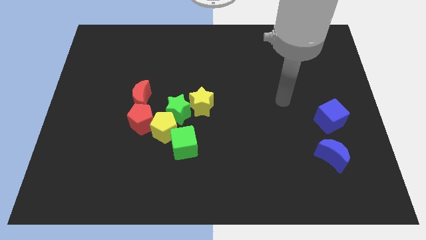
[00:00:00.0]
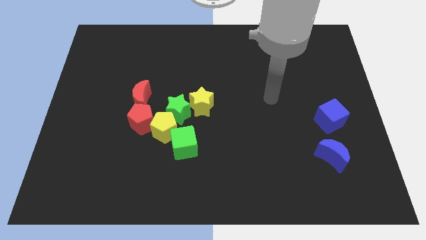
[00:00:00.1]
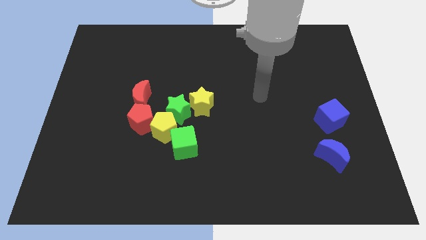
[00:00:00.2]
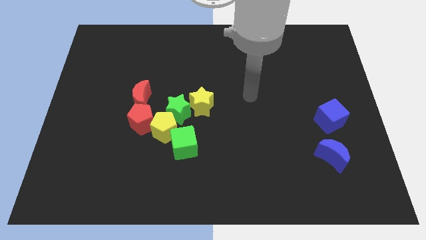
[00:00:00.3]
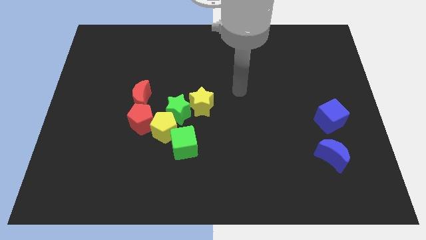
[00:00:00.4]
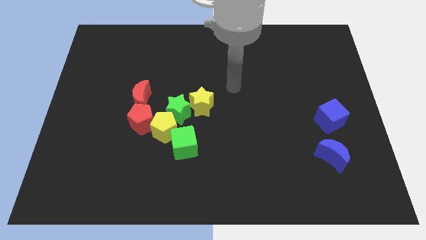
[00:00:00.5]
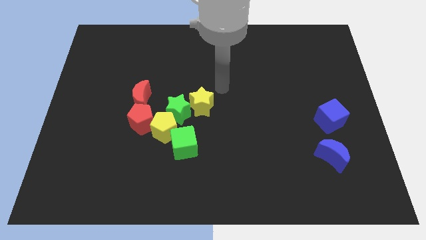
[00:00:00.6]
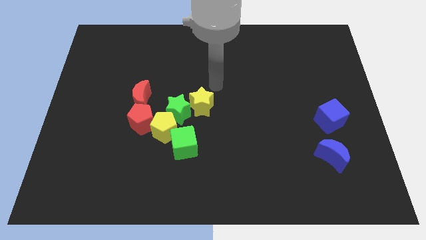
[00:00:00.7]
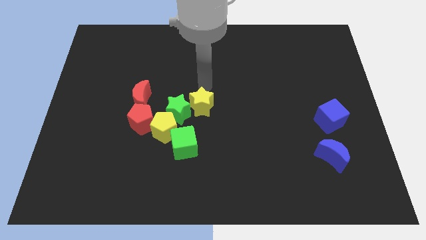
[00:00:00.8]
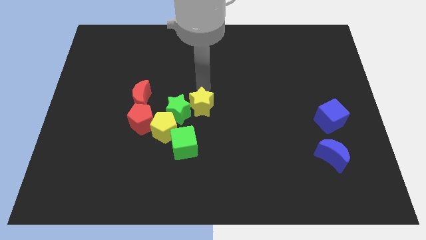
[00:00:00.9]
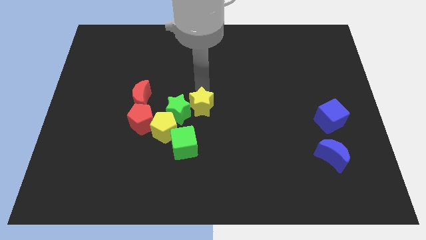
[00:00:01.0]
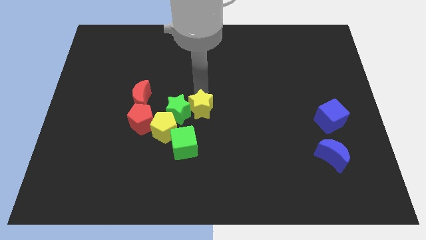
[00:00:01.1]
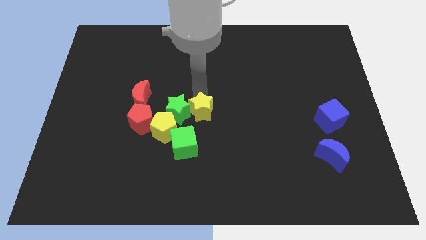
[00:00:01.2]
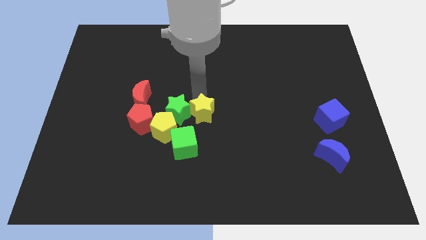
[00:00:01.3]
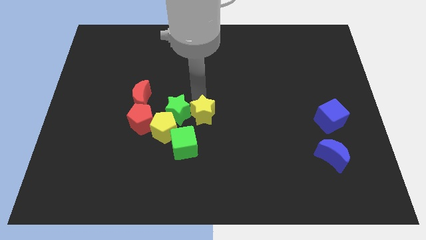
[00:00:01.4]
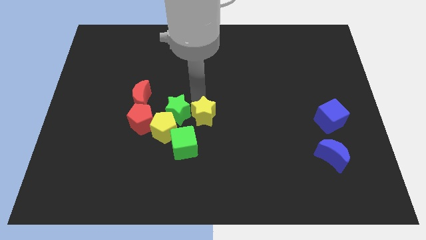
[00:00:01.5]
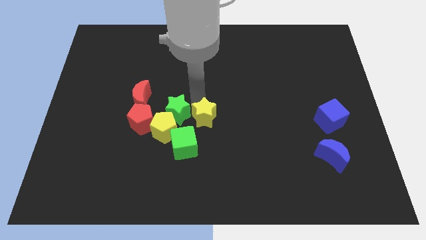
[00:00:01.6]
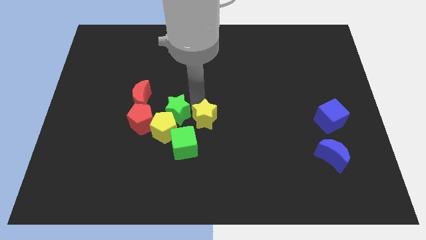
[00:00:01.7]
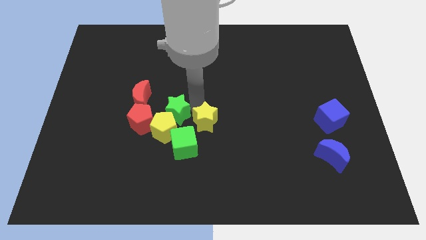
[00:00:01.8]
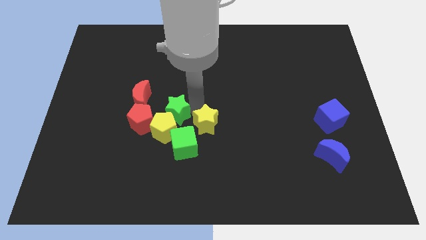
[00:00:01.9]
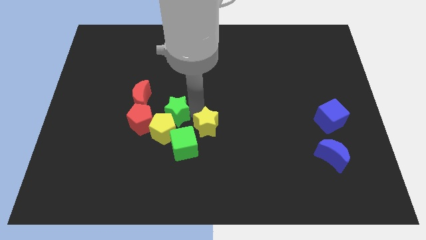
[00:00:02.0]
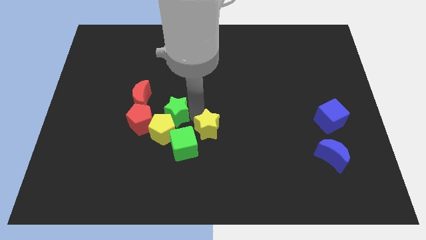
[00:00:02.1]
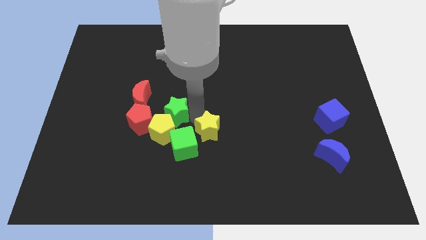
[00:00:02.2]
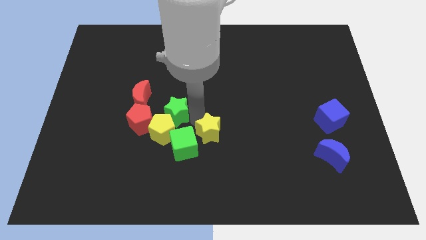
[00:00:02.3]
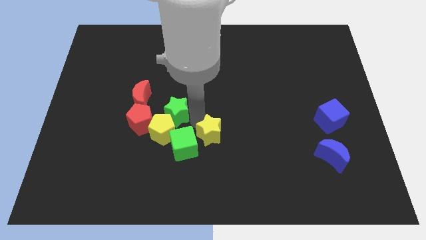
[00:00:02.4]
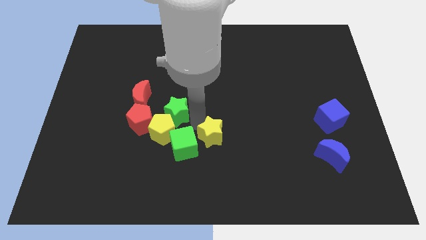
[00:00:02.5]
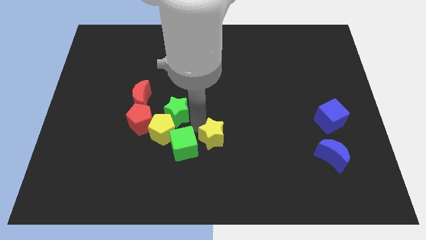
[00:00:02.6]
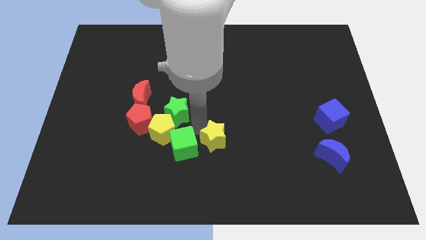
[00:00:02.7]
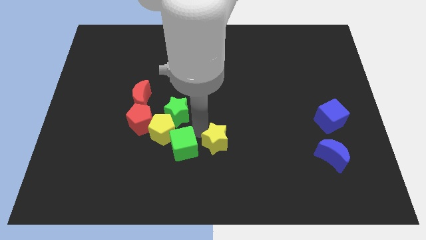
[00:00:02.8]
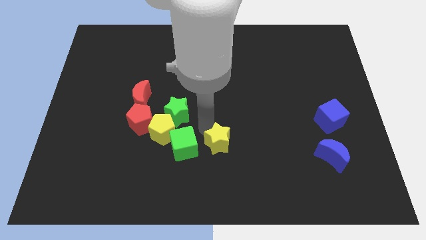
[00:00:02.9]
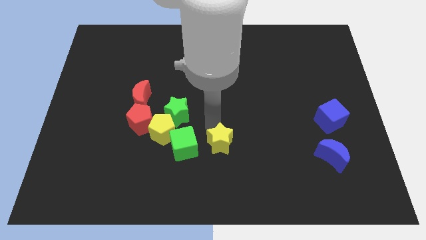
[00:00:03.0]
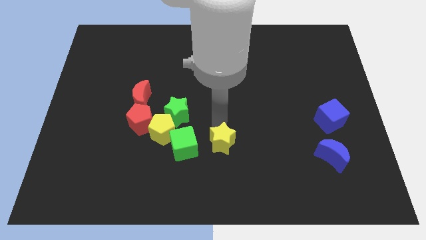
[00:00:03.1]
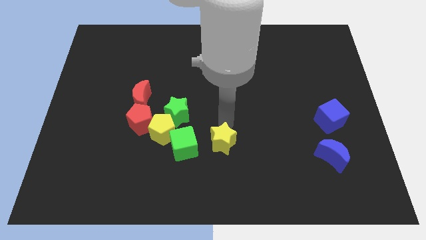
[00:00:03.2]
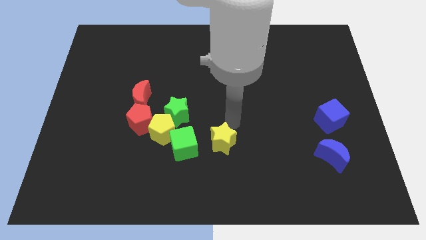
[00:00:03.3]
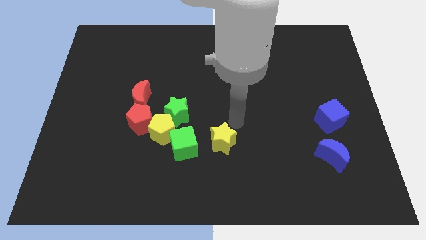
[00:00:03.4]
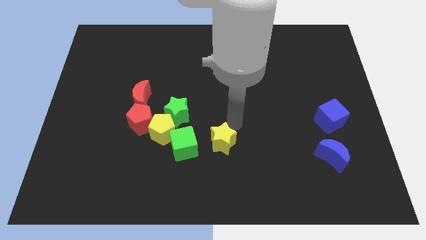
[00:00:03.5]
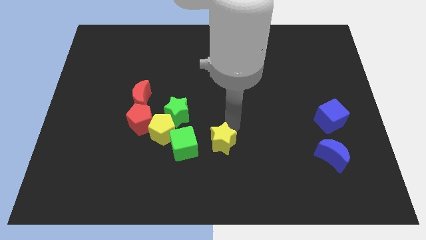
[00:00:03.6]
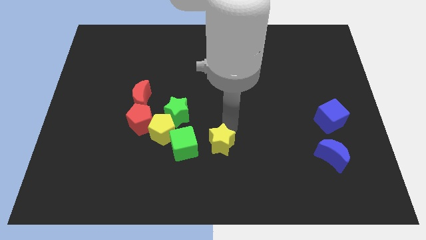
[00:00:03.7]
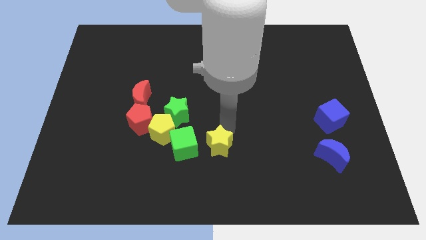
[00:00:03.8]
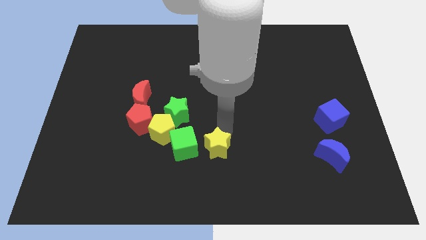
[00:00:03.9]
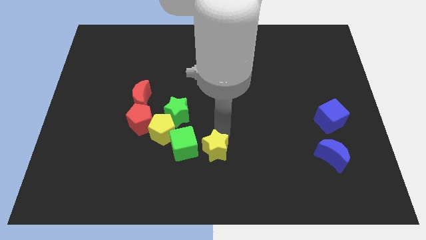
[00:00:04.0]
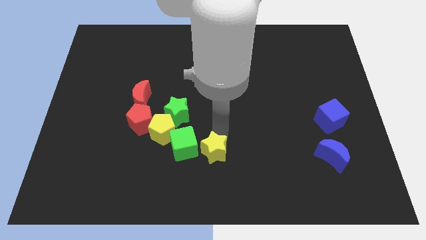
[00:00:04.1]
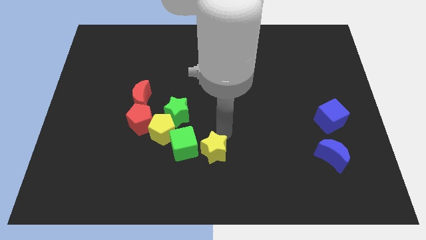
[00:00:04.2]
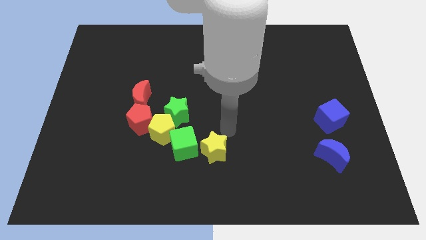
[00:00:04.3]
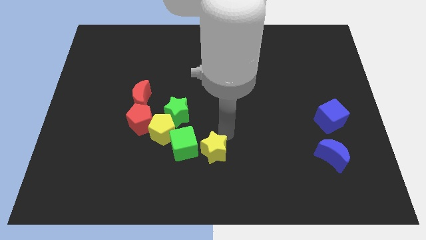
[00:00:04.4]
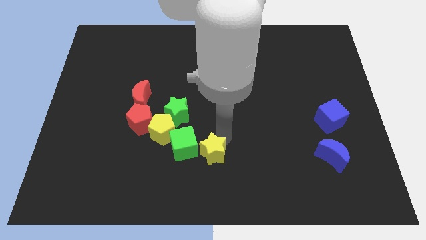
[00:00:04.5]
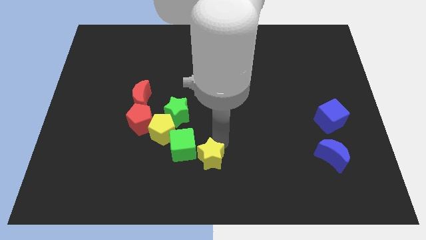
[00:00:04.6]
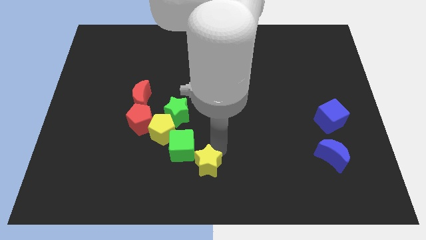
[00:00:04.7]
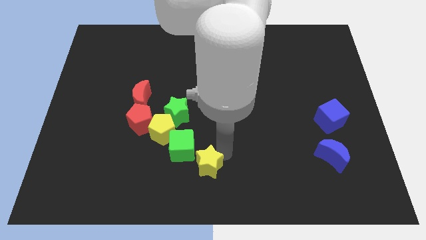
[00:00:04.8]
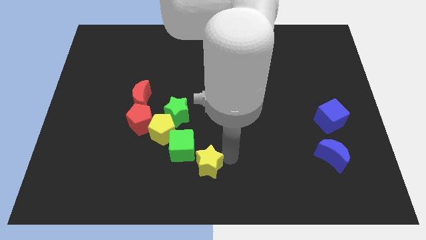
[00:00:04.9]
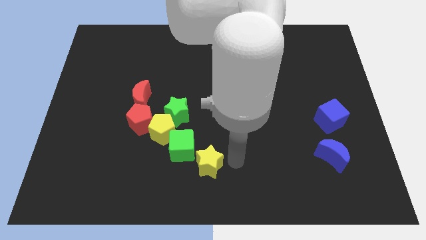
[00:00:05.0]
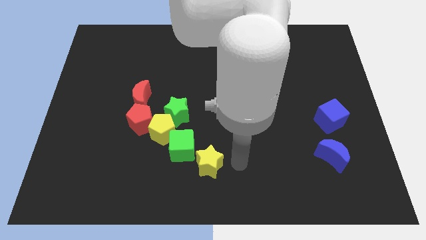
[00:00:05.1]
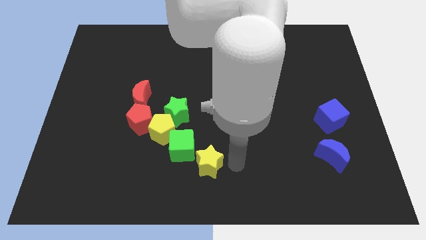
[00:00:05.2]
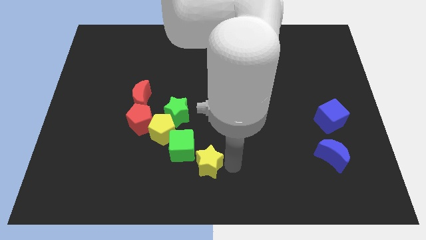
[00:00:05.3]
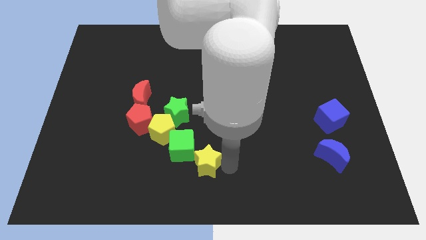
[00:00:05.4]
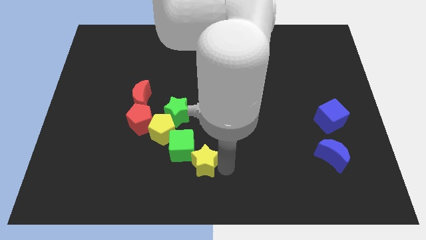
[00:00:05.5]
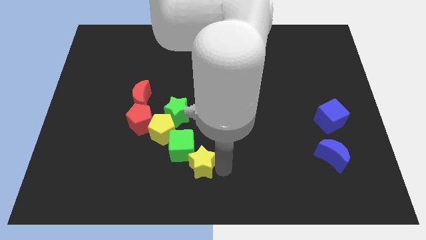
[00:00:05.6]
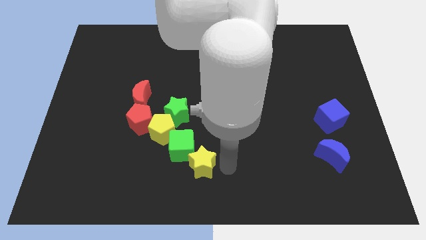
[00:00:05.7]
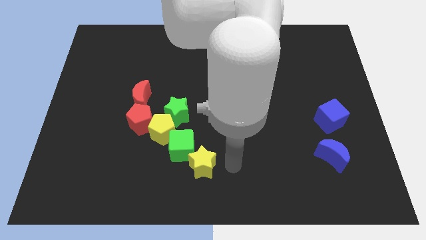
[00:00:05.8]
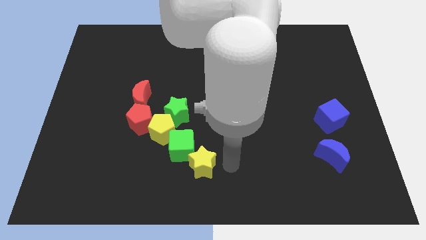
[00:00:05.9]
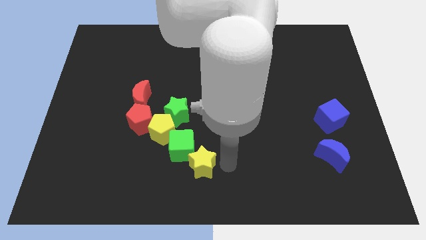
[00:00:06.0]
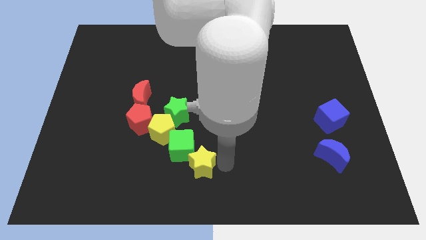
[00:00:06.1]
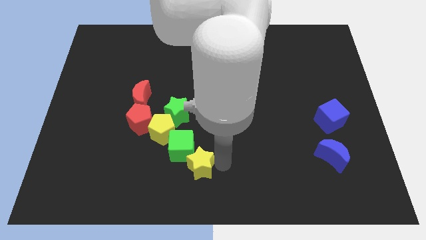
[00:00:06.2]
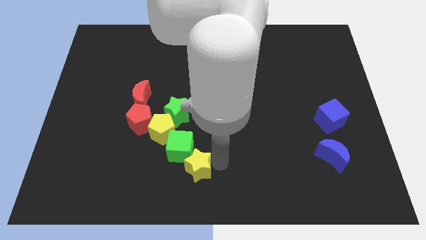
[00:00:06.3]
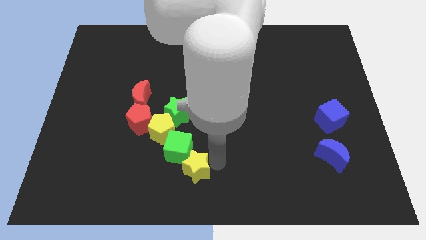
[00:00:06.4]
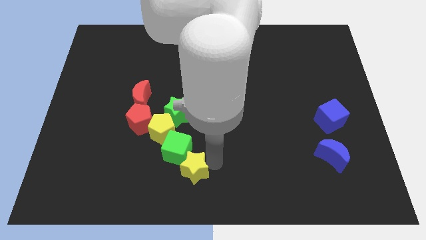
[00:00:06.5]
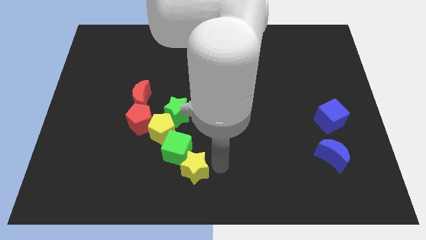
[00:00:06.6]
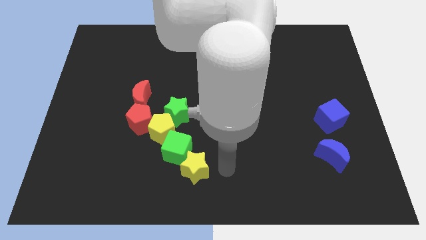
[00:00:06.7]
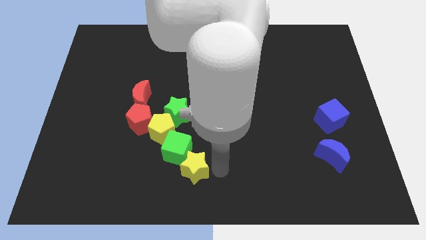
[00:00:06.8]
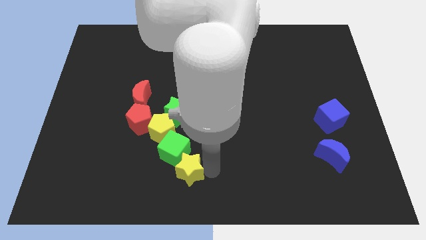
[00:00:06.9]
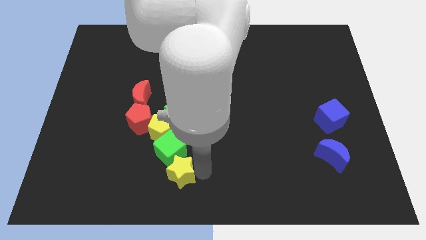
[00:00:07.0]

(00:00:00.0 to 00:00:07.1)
move the yellow star to the bottom of the yellow pentagon
